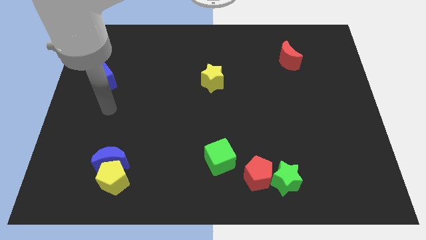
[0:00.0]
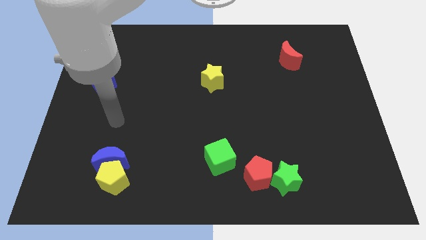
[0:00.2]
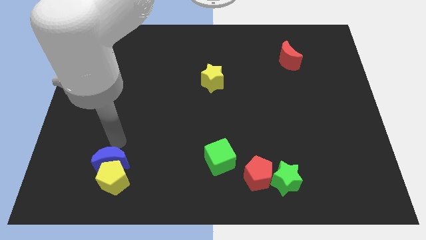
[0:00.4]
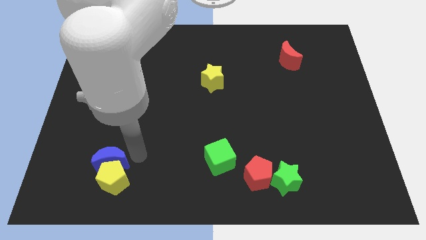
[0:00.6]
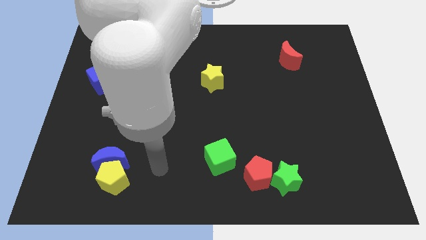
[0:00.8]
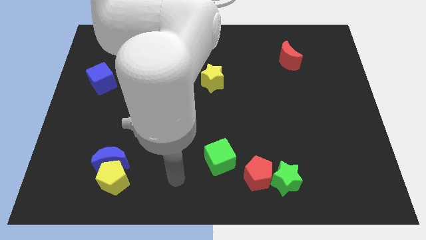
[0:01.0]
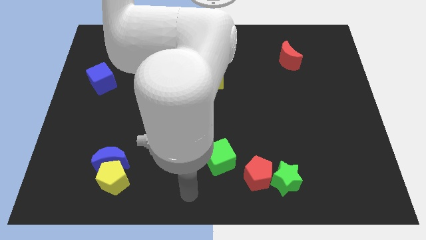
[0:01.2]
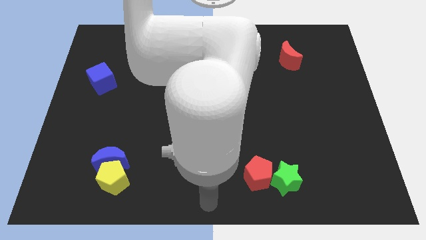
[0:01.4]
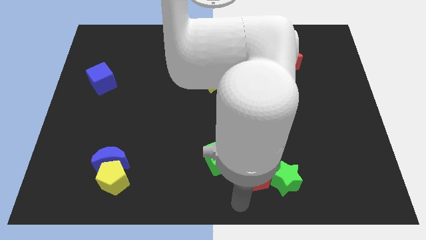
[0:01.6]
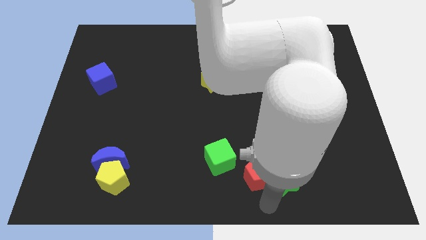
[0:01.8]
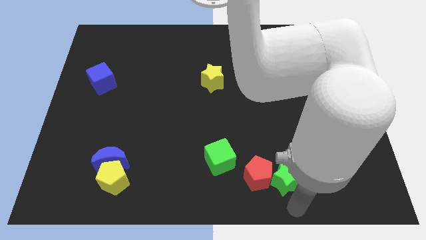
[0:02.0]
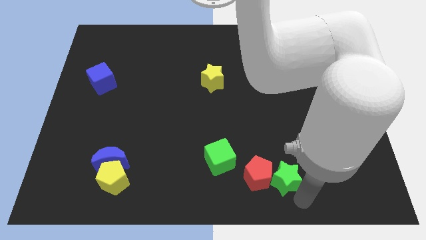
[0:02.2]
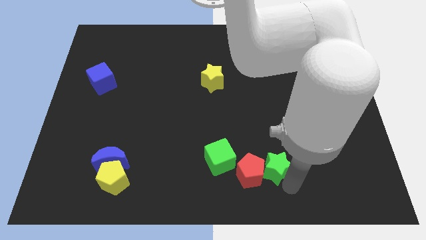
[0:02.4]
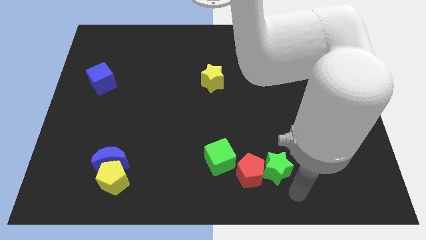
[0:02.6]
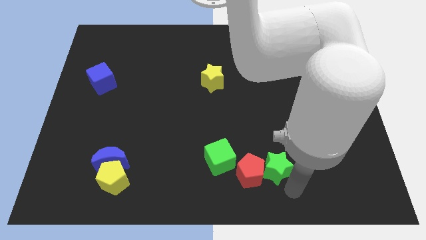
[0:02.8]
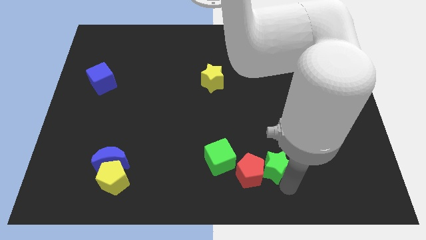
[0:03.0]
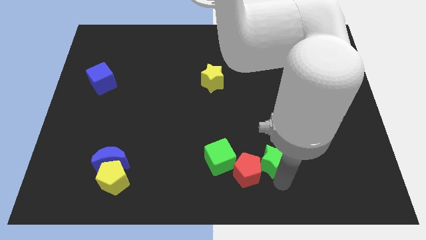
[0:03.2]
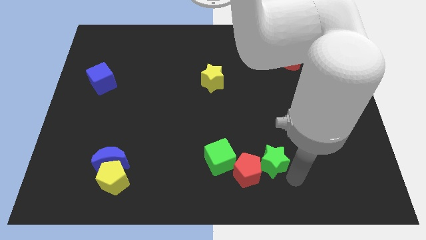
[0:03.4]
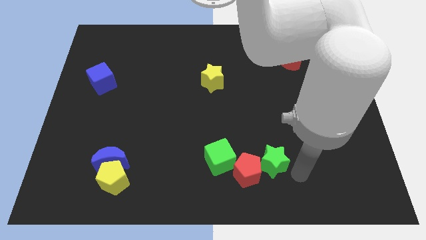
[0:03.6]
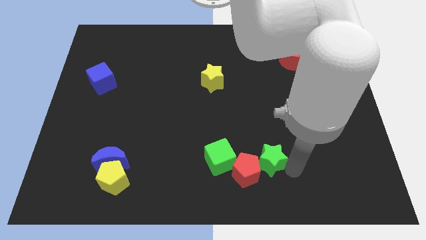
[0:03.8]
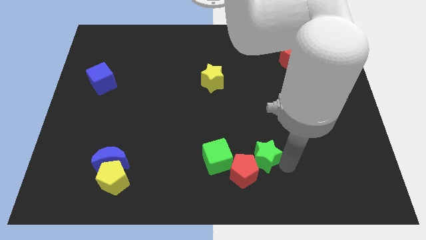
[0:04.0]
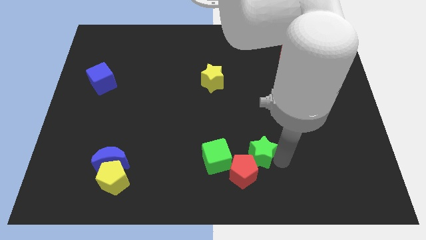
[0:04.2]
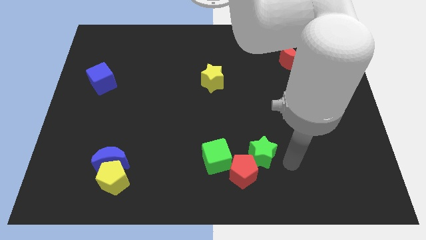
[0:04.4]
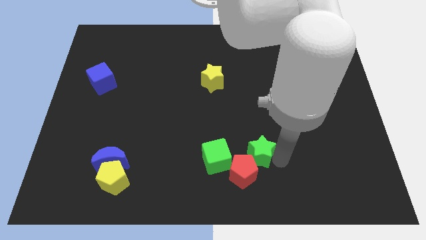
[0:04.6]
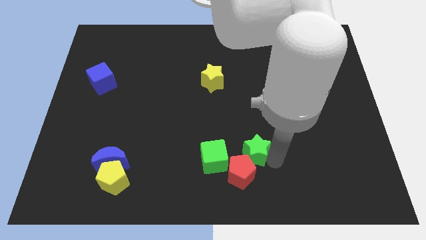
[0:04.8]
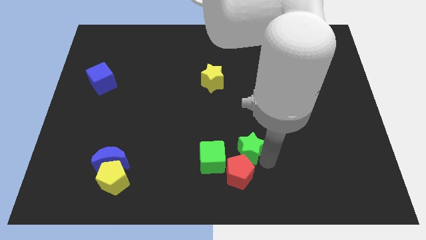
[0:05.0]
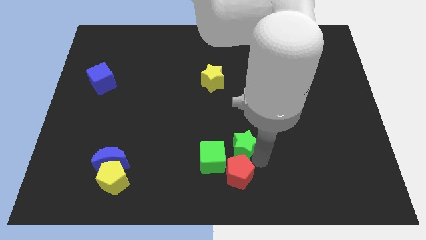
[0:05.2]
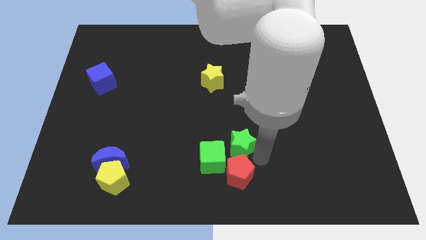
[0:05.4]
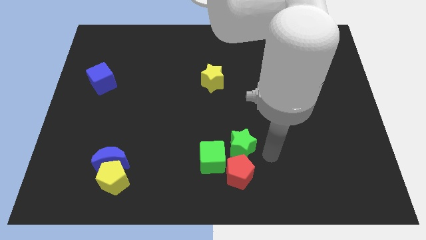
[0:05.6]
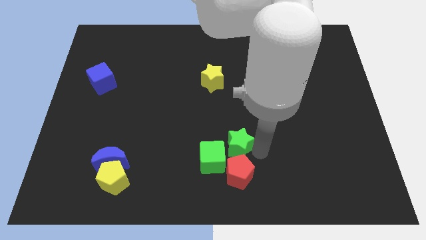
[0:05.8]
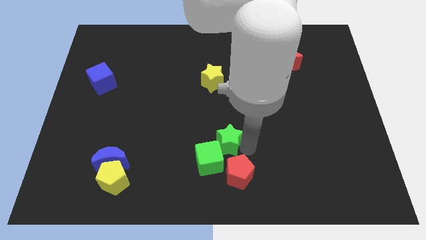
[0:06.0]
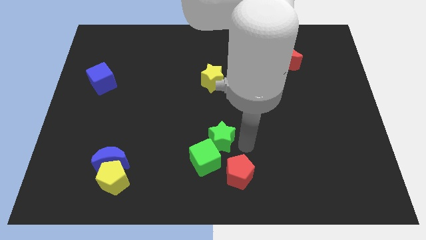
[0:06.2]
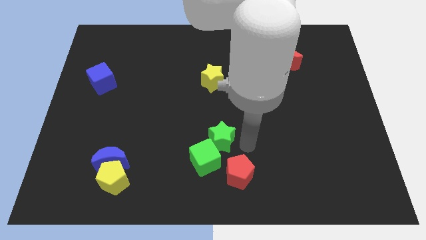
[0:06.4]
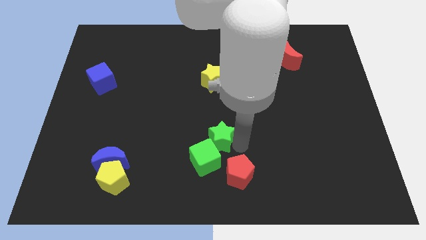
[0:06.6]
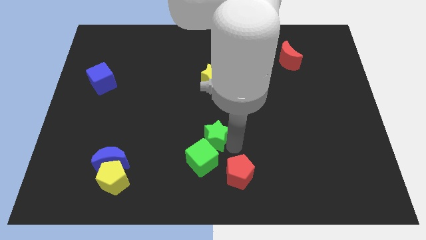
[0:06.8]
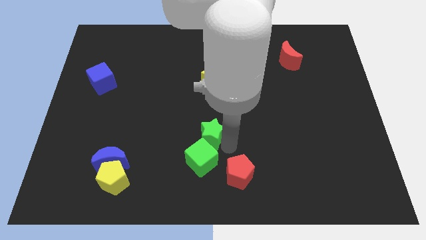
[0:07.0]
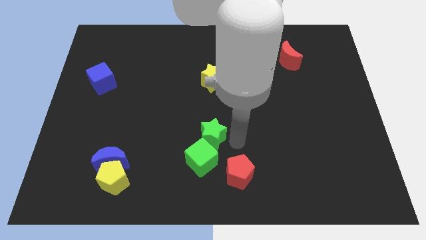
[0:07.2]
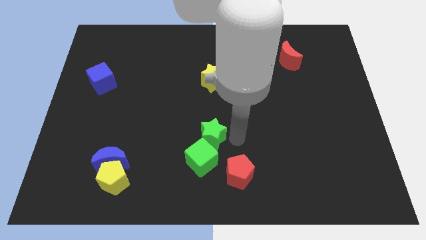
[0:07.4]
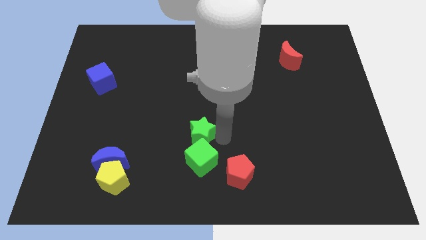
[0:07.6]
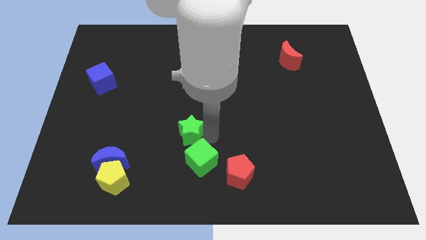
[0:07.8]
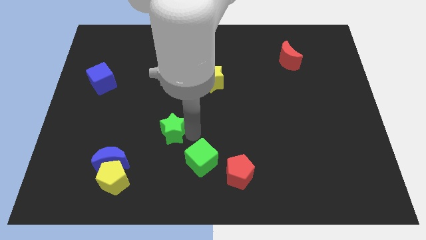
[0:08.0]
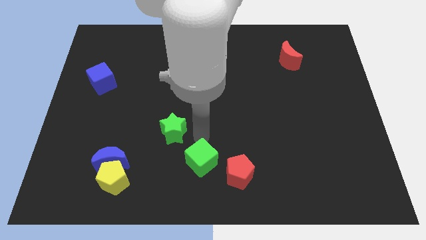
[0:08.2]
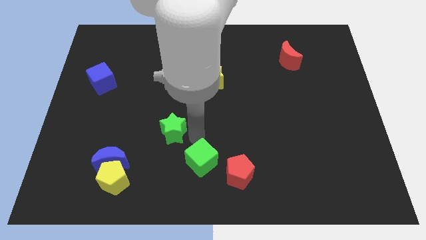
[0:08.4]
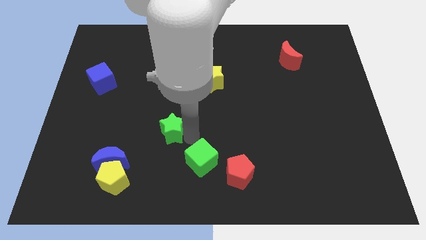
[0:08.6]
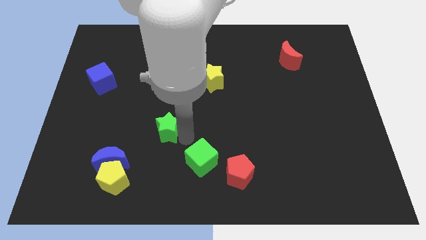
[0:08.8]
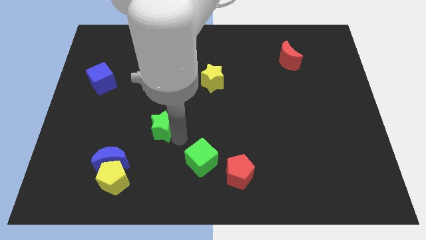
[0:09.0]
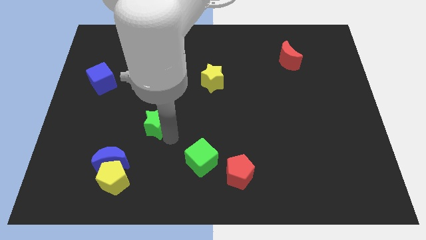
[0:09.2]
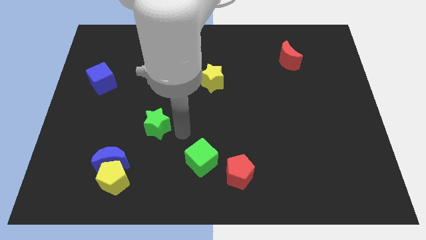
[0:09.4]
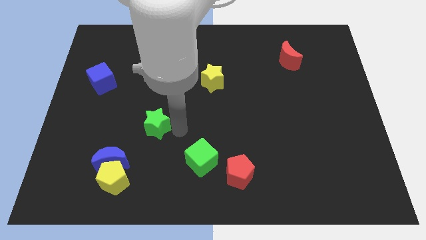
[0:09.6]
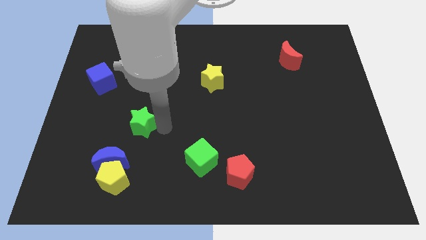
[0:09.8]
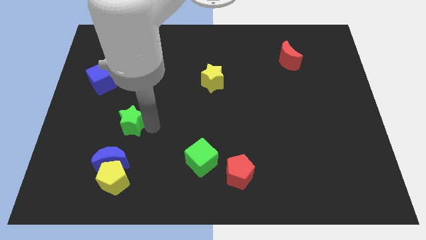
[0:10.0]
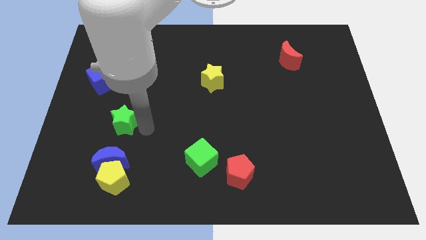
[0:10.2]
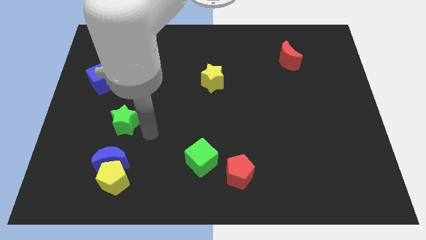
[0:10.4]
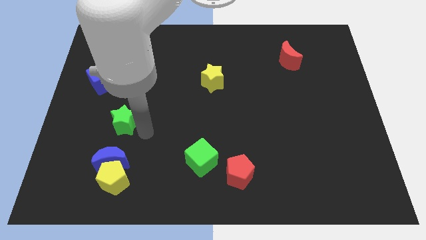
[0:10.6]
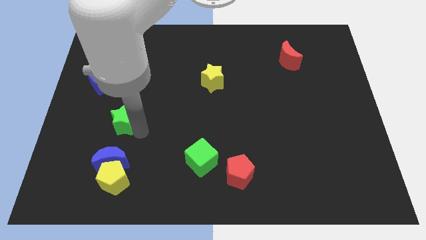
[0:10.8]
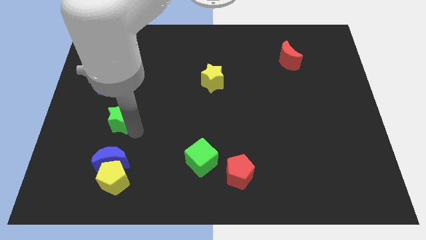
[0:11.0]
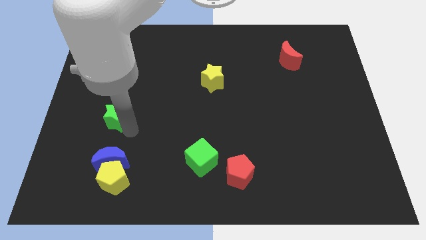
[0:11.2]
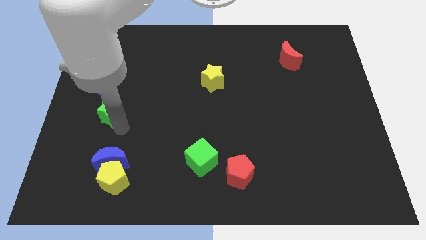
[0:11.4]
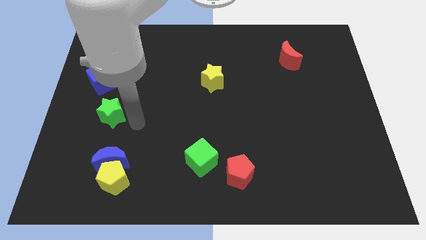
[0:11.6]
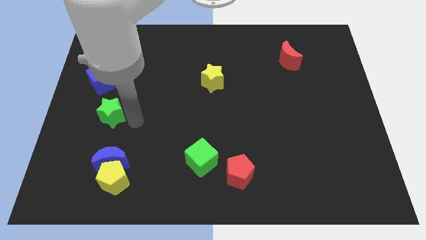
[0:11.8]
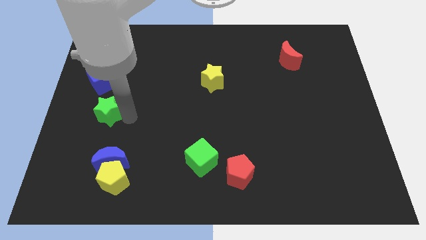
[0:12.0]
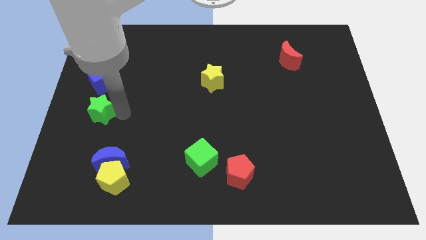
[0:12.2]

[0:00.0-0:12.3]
push the green star to the left side of the board
